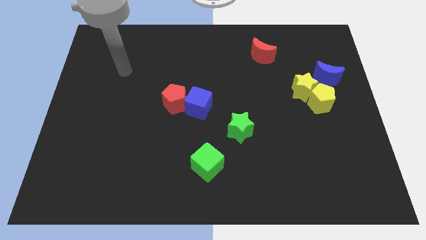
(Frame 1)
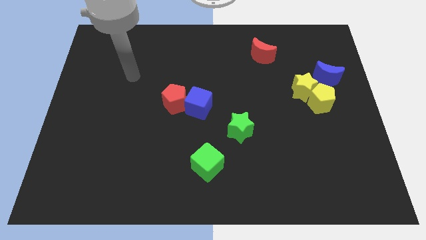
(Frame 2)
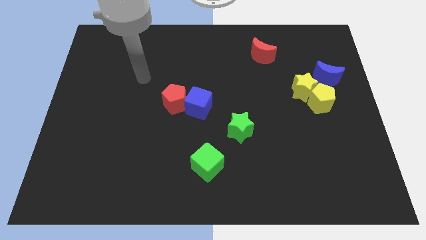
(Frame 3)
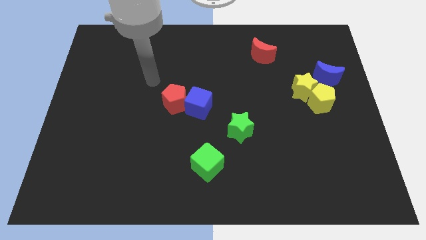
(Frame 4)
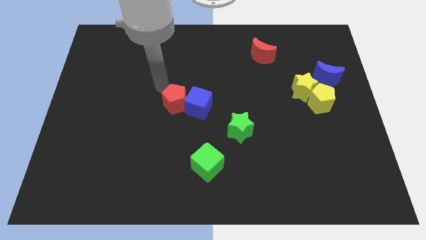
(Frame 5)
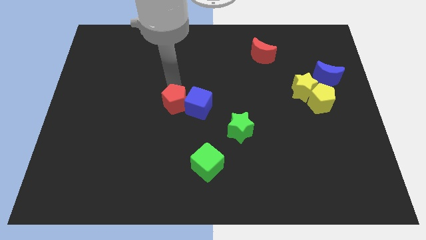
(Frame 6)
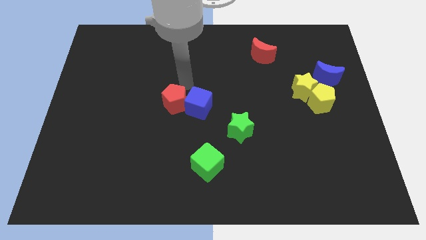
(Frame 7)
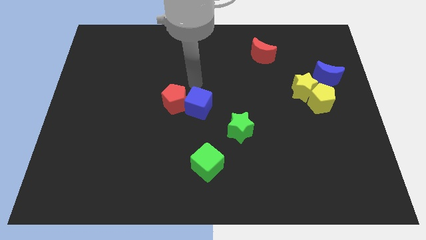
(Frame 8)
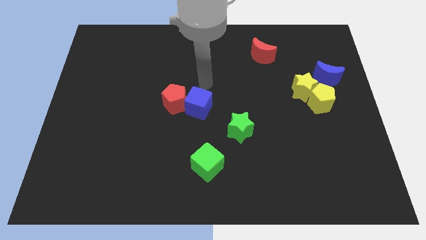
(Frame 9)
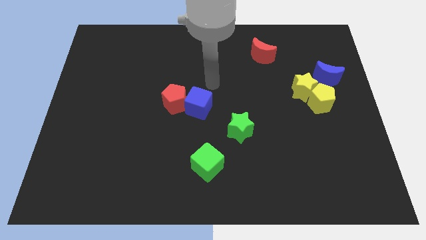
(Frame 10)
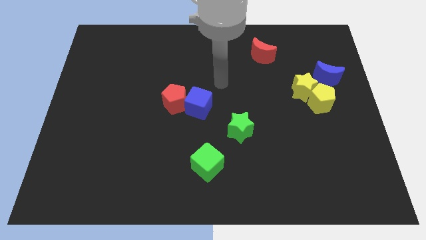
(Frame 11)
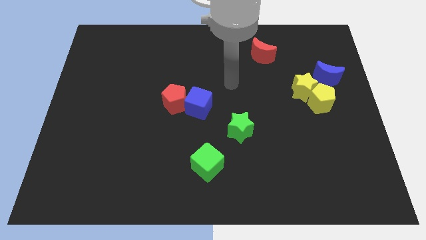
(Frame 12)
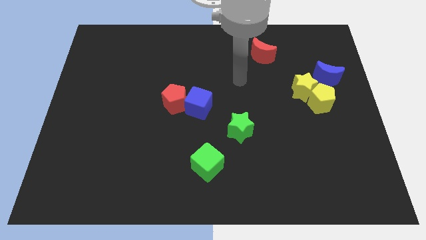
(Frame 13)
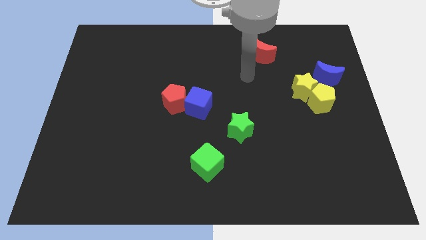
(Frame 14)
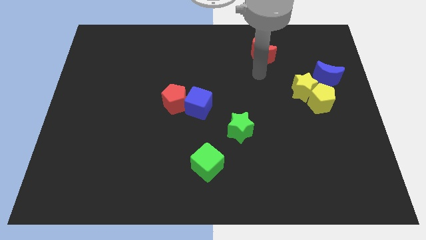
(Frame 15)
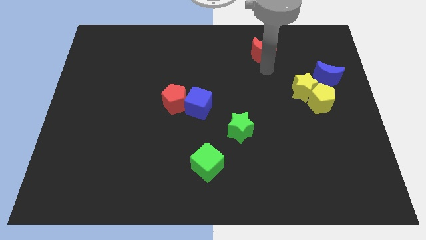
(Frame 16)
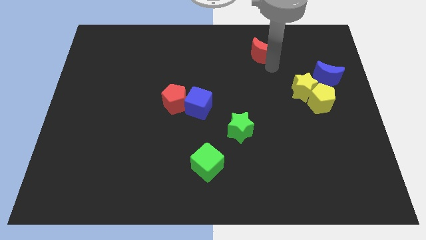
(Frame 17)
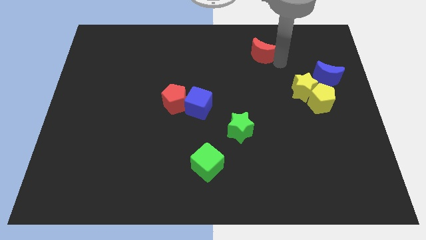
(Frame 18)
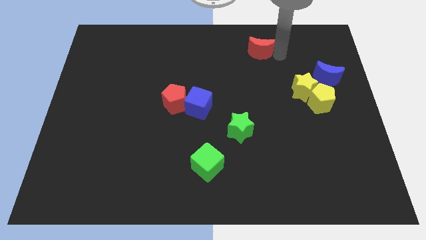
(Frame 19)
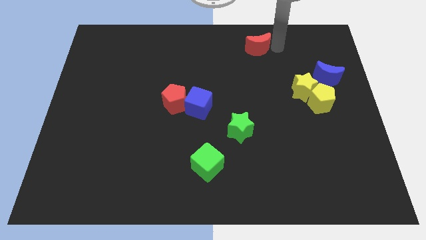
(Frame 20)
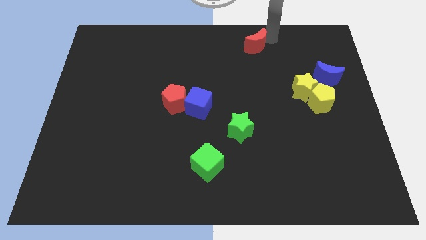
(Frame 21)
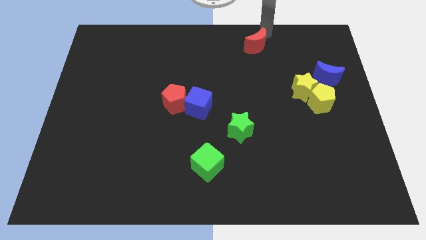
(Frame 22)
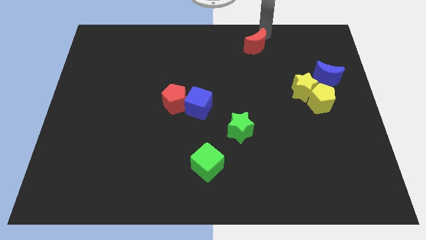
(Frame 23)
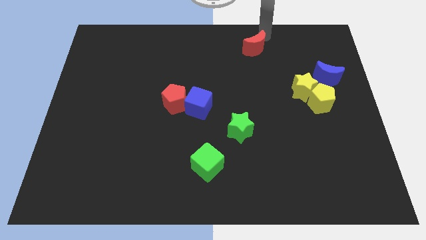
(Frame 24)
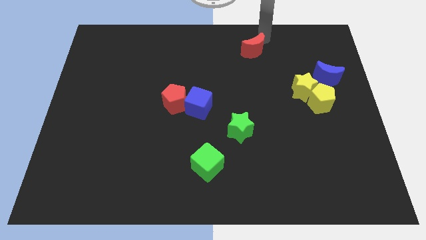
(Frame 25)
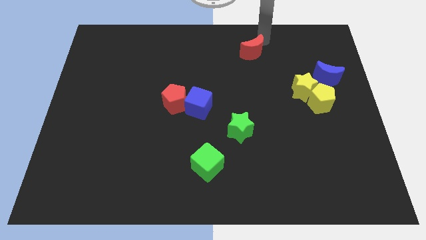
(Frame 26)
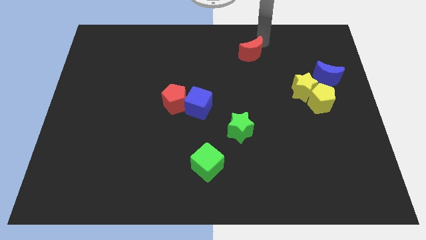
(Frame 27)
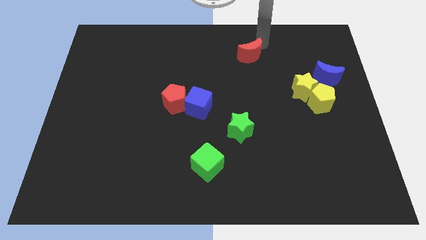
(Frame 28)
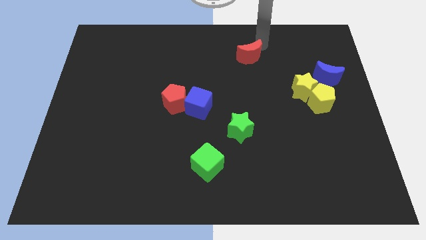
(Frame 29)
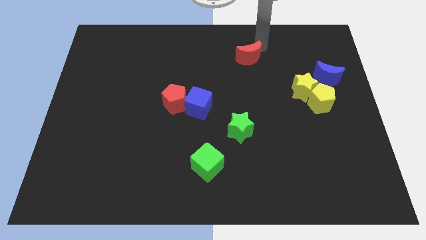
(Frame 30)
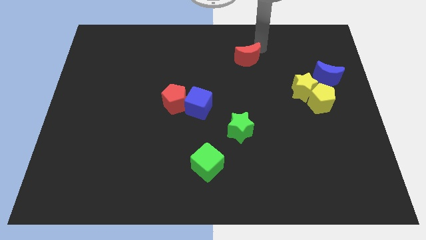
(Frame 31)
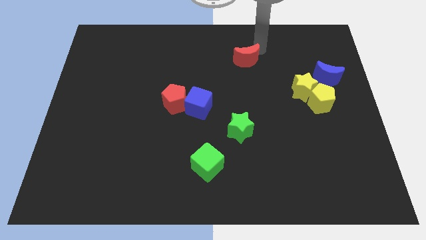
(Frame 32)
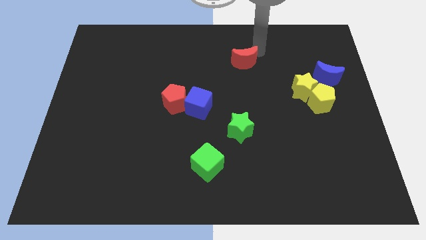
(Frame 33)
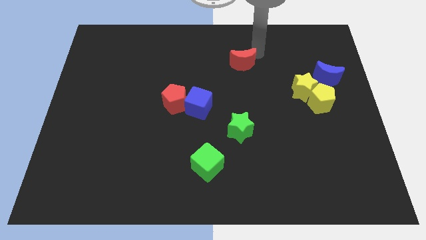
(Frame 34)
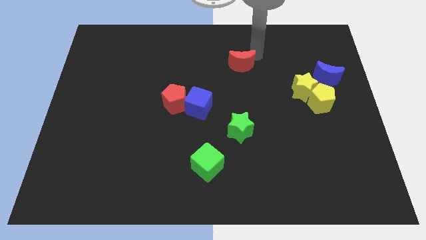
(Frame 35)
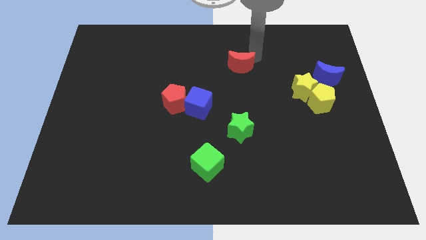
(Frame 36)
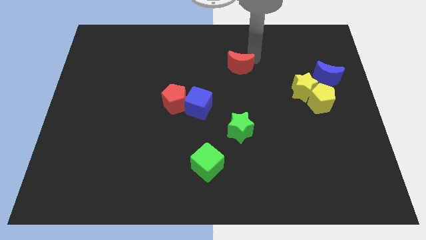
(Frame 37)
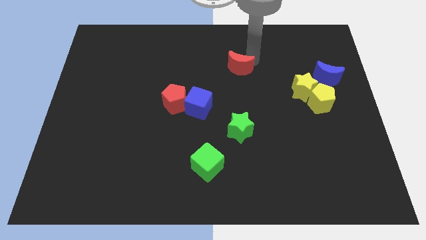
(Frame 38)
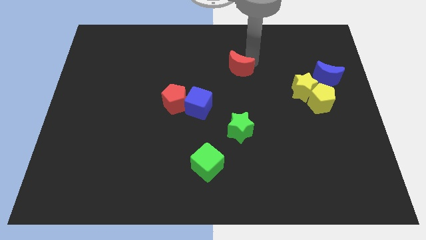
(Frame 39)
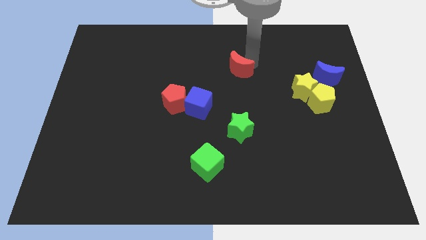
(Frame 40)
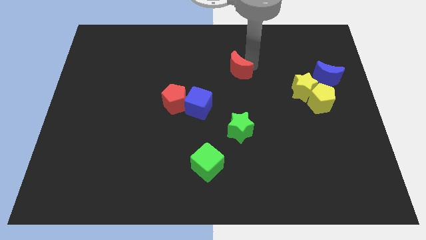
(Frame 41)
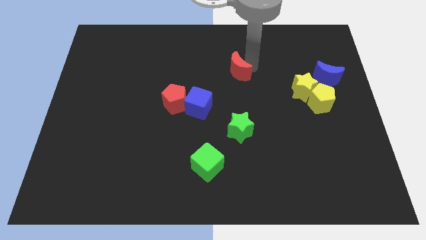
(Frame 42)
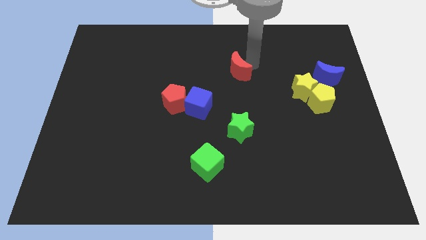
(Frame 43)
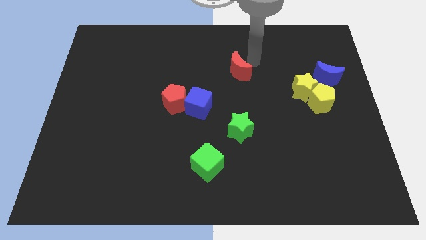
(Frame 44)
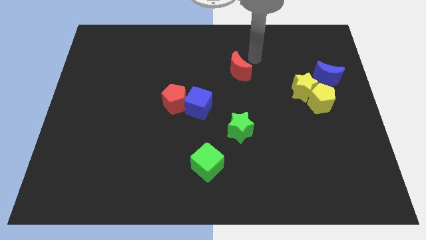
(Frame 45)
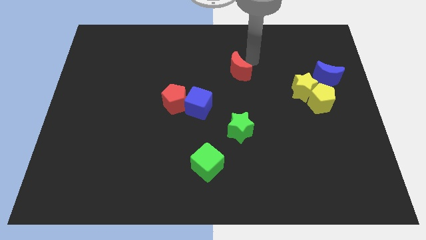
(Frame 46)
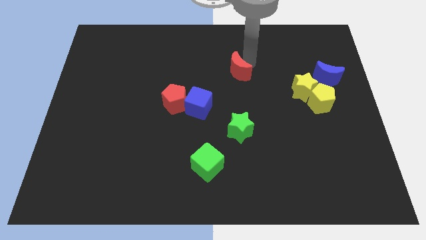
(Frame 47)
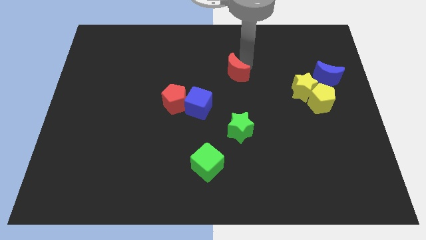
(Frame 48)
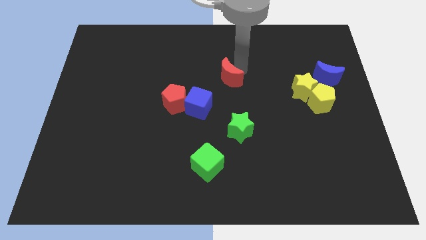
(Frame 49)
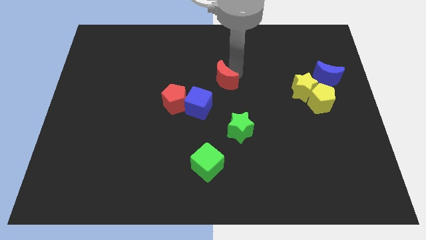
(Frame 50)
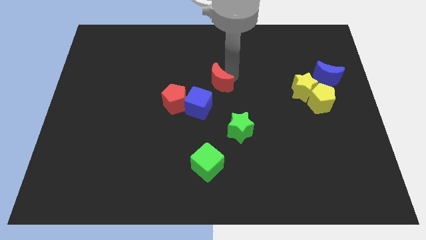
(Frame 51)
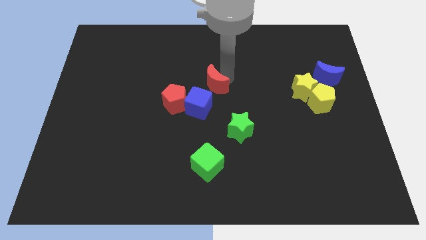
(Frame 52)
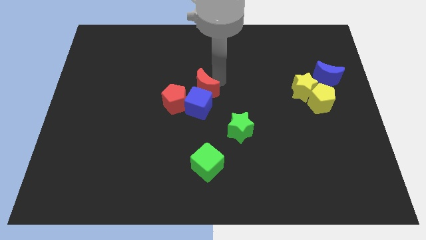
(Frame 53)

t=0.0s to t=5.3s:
move the red moon to the blue cube

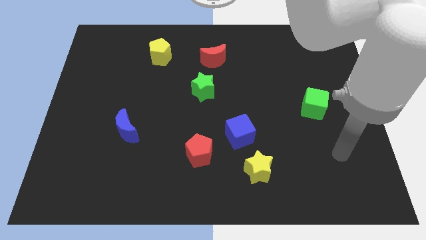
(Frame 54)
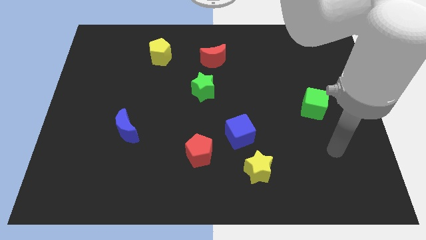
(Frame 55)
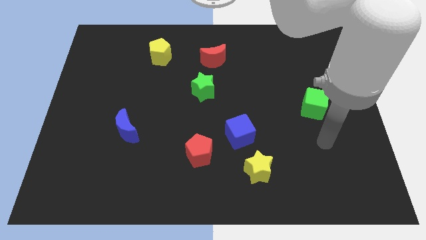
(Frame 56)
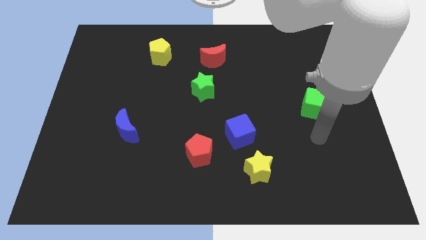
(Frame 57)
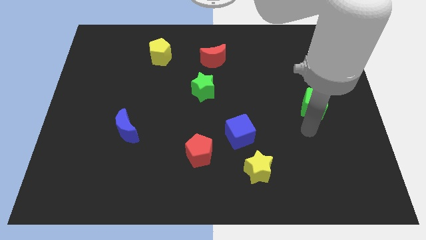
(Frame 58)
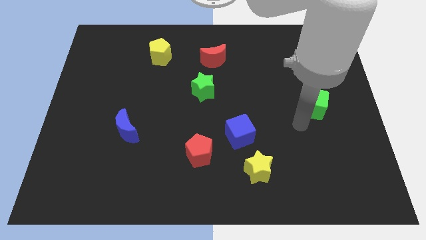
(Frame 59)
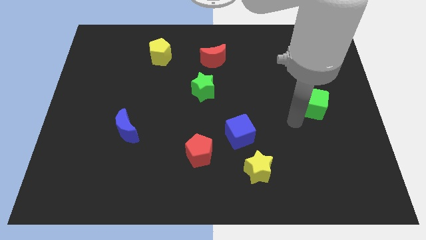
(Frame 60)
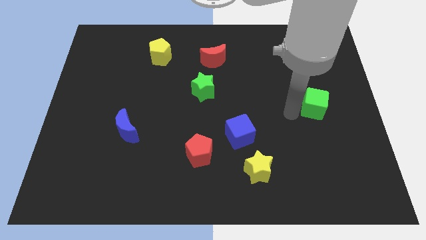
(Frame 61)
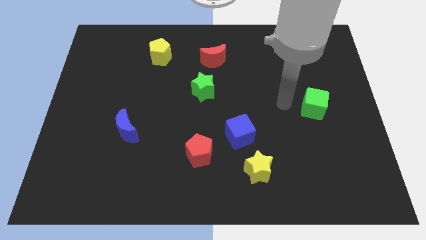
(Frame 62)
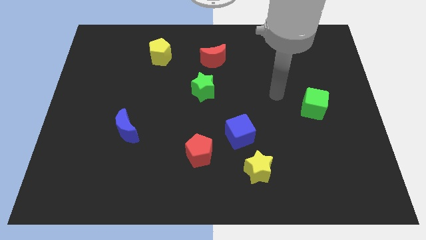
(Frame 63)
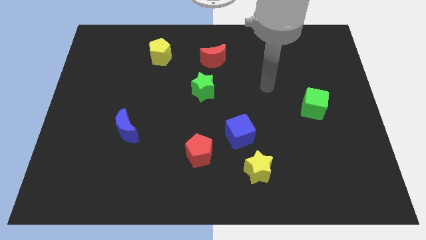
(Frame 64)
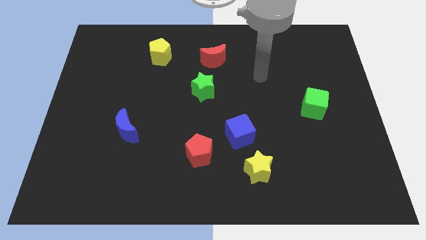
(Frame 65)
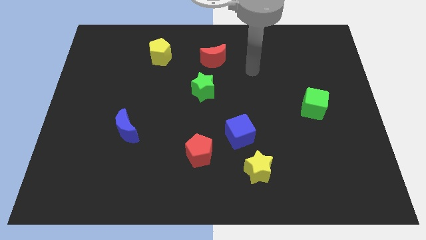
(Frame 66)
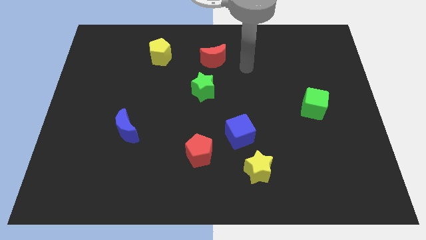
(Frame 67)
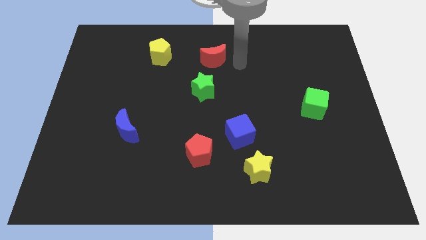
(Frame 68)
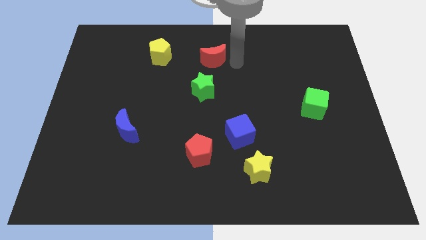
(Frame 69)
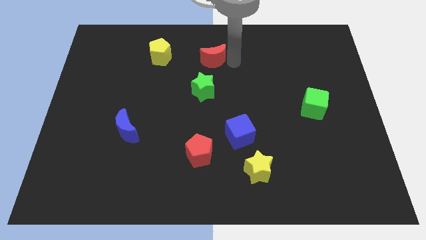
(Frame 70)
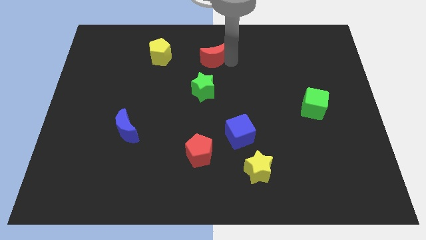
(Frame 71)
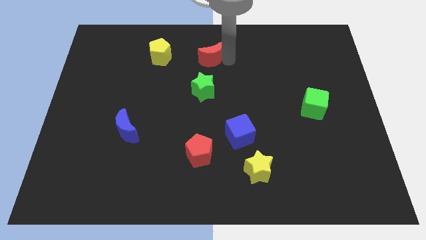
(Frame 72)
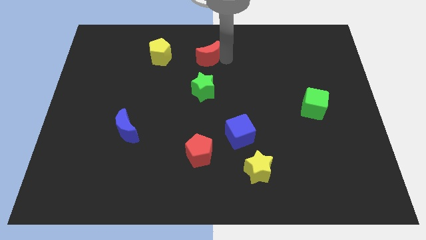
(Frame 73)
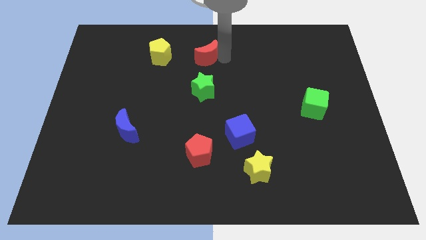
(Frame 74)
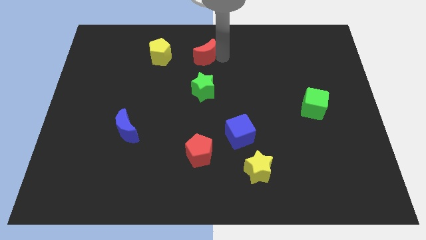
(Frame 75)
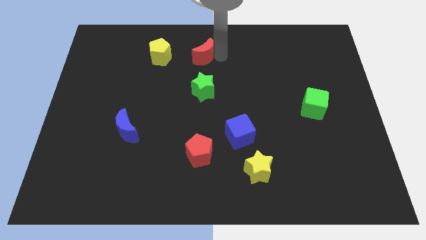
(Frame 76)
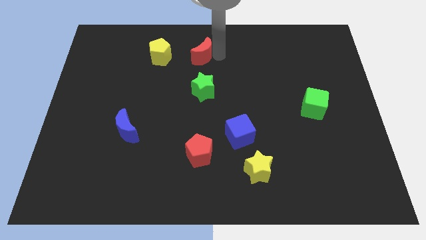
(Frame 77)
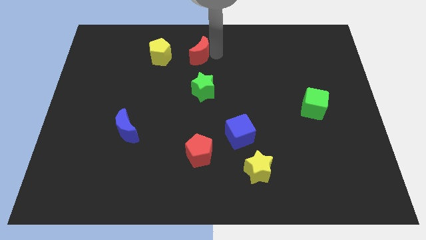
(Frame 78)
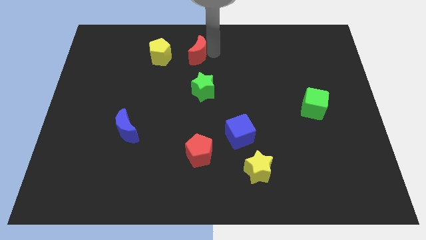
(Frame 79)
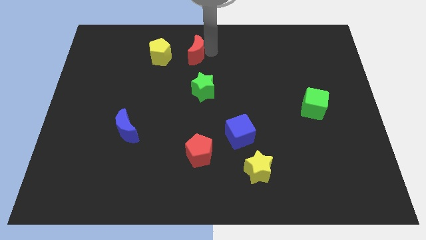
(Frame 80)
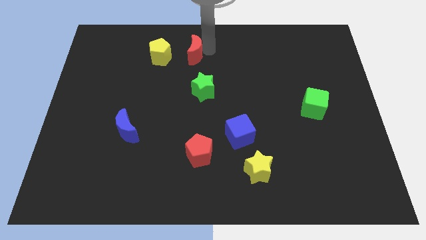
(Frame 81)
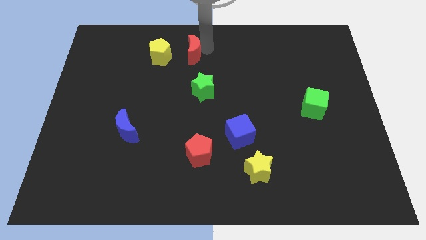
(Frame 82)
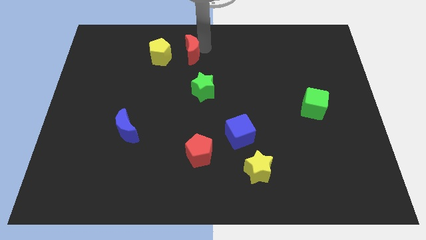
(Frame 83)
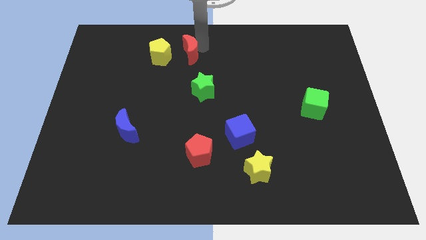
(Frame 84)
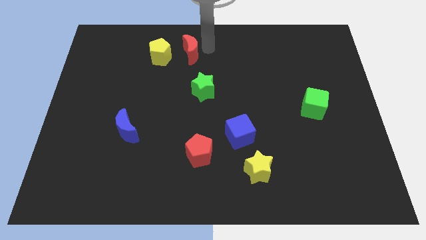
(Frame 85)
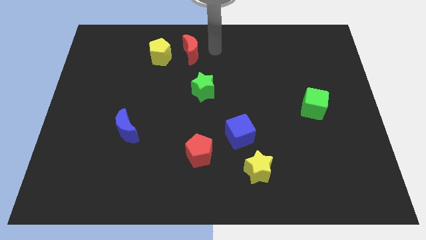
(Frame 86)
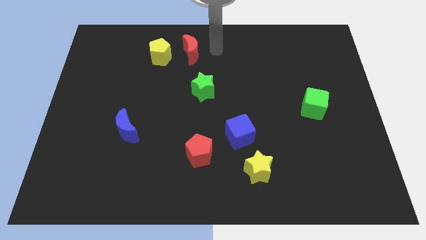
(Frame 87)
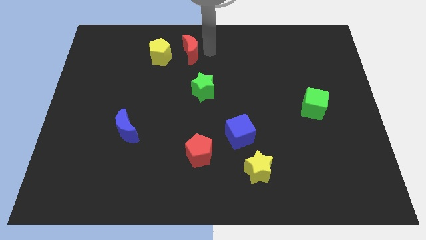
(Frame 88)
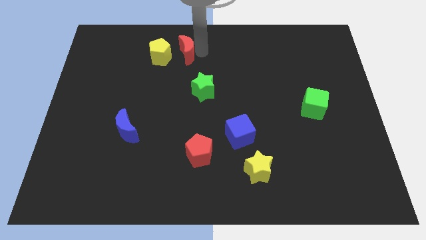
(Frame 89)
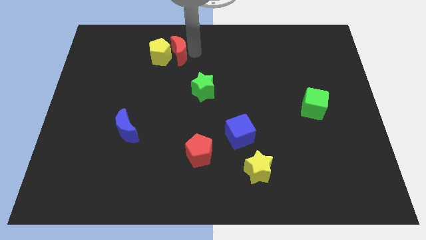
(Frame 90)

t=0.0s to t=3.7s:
put the red moon towards the yellow pentagon
